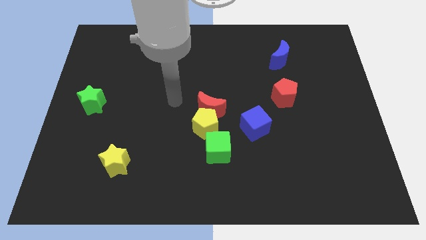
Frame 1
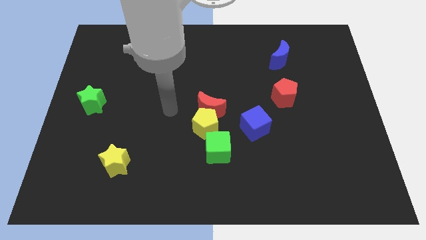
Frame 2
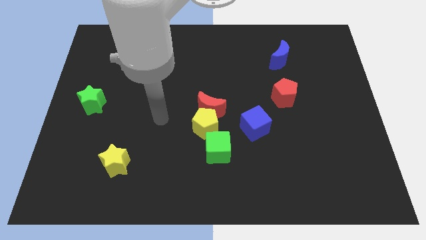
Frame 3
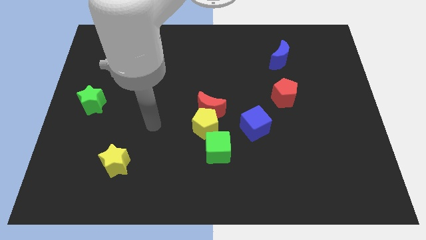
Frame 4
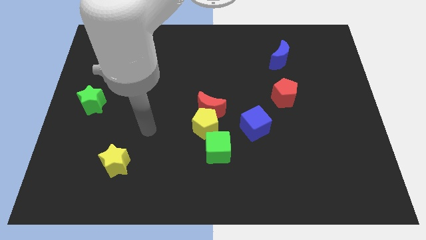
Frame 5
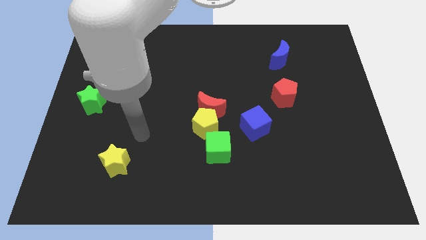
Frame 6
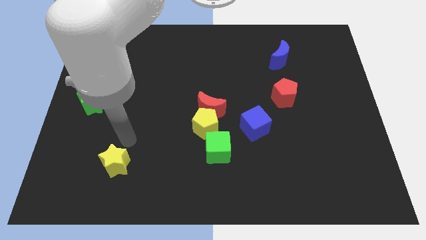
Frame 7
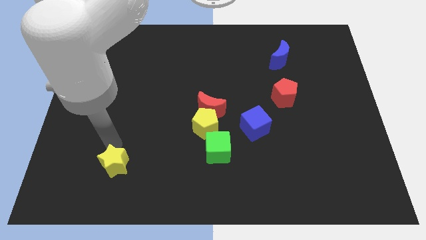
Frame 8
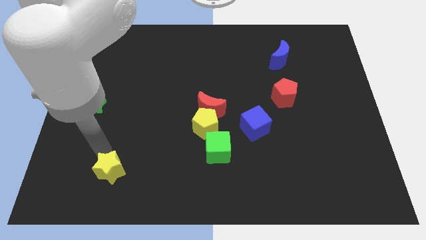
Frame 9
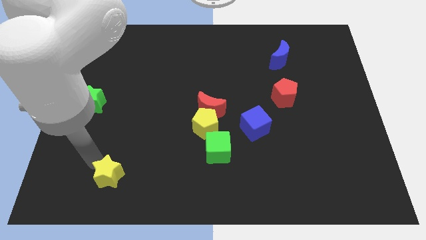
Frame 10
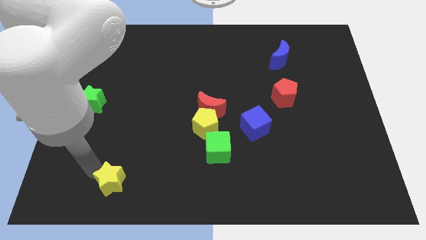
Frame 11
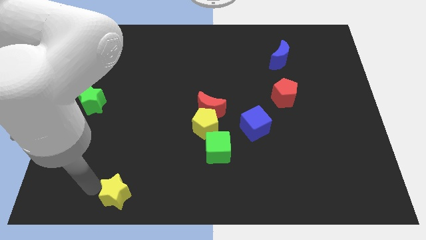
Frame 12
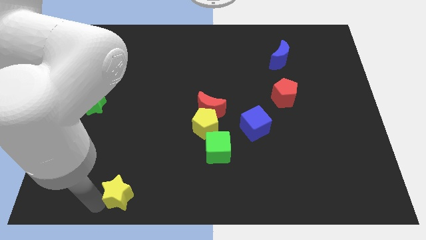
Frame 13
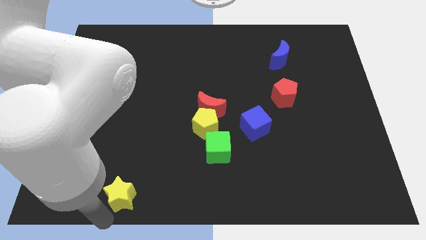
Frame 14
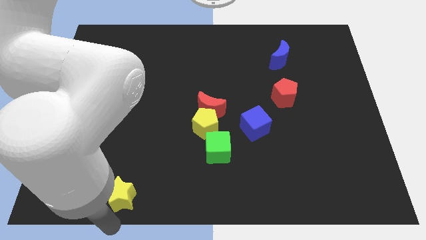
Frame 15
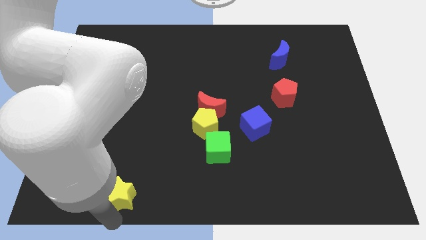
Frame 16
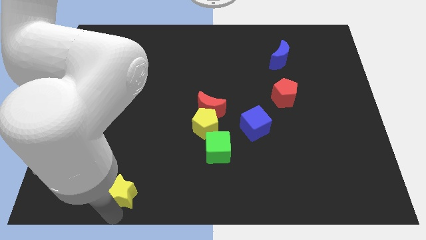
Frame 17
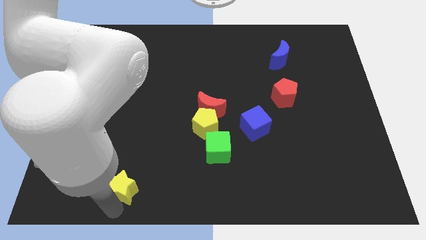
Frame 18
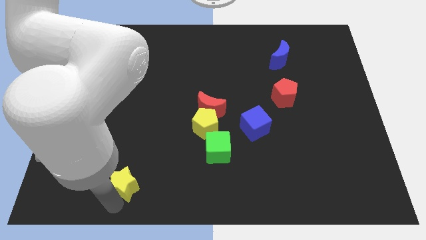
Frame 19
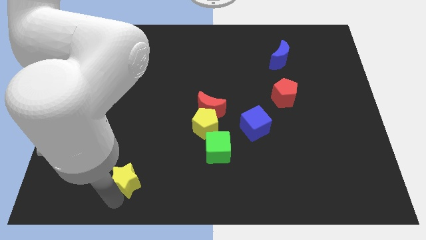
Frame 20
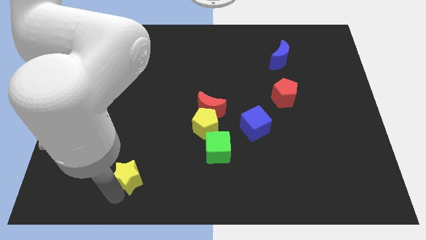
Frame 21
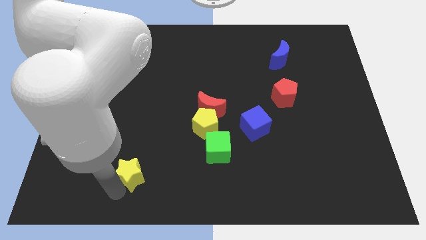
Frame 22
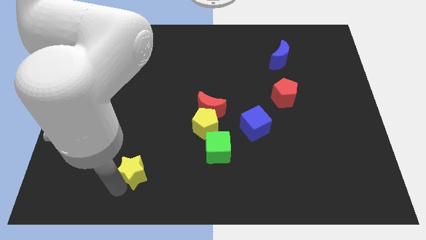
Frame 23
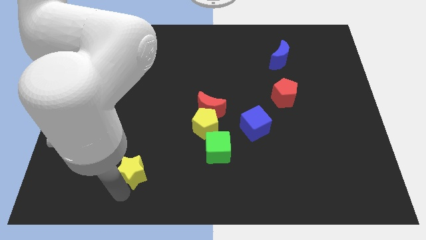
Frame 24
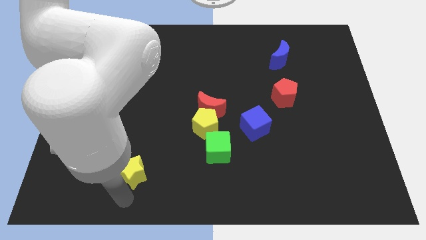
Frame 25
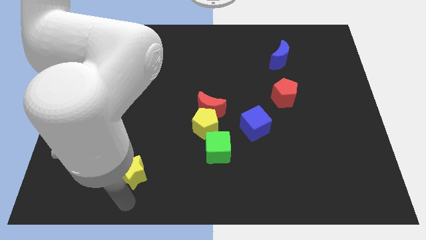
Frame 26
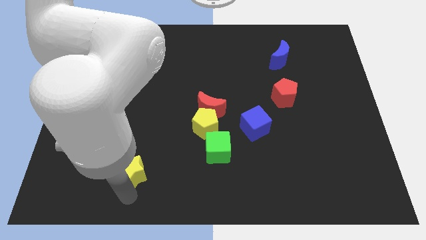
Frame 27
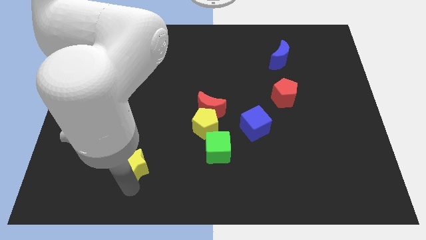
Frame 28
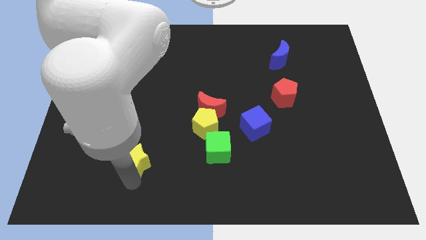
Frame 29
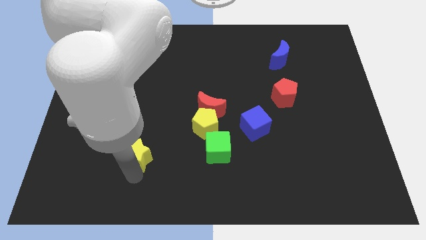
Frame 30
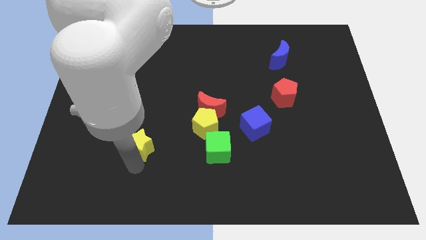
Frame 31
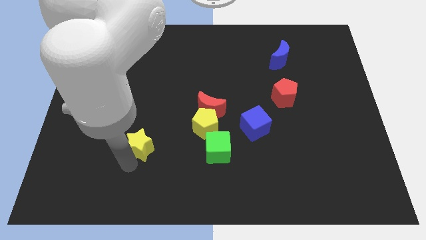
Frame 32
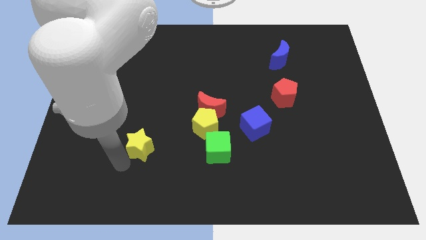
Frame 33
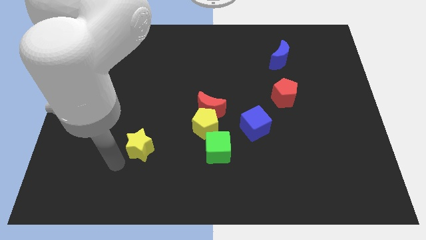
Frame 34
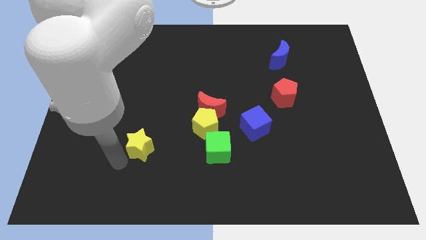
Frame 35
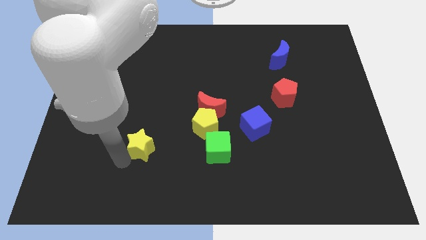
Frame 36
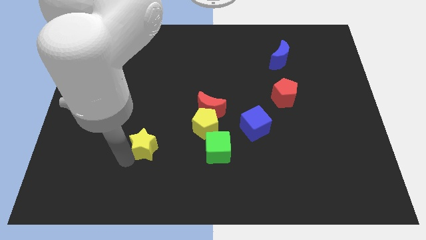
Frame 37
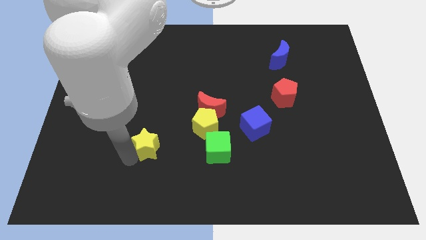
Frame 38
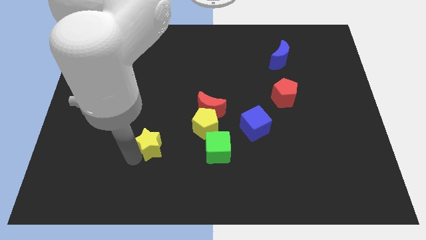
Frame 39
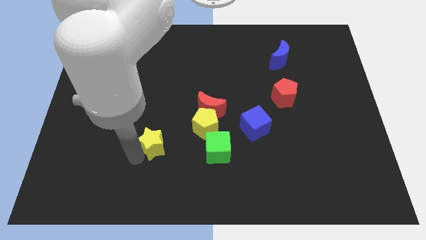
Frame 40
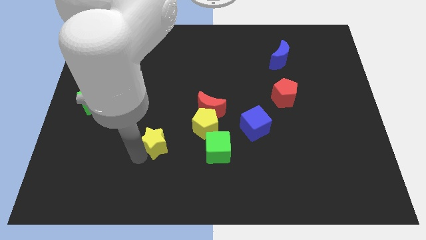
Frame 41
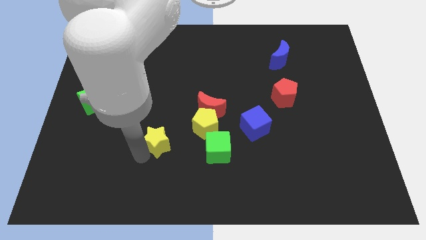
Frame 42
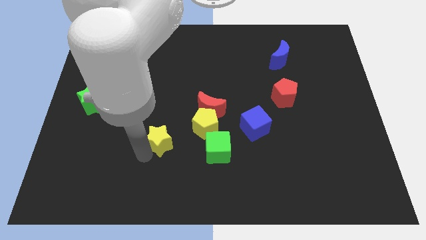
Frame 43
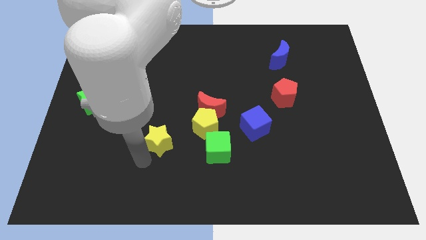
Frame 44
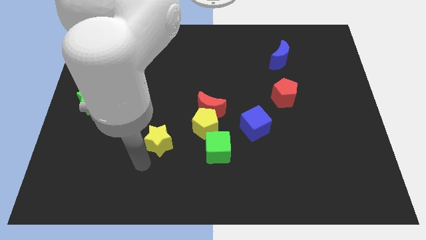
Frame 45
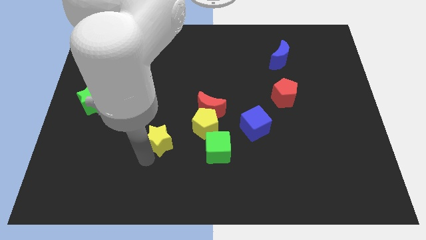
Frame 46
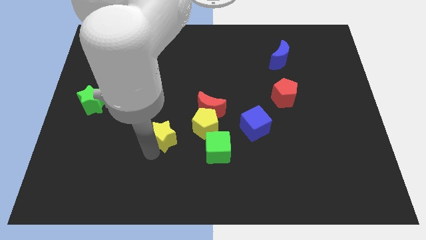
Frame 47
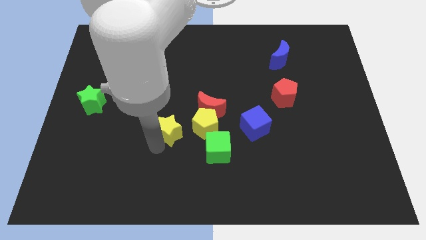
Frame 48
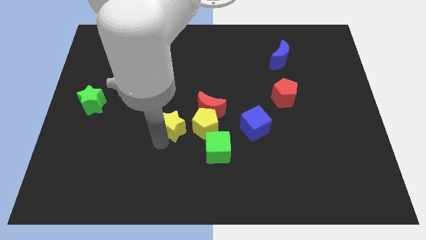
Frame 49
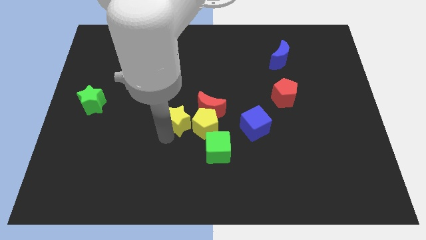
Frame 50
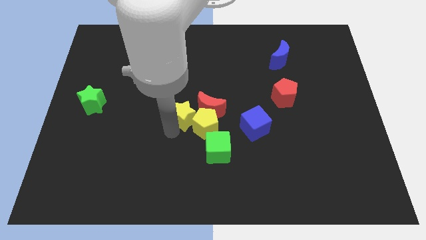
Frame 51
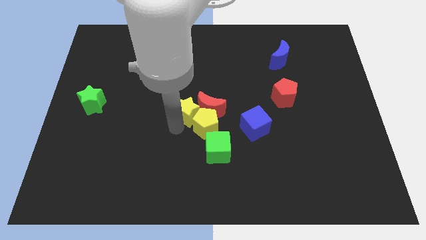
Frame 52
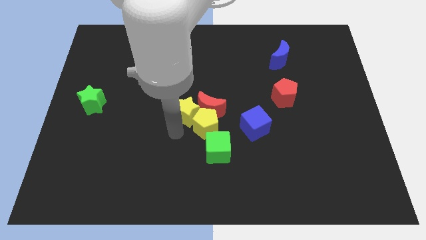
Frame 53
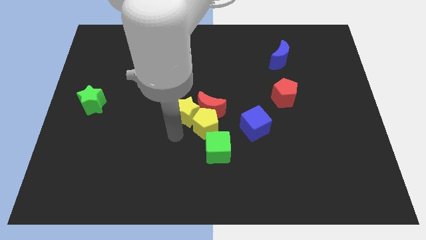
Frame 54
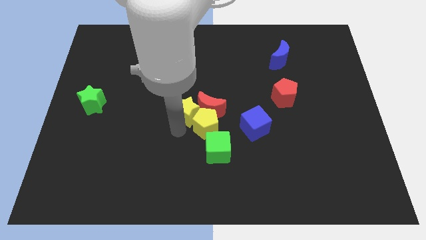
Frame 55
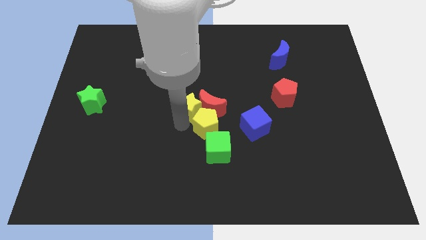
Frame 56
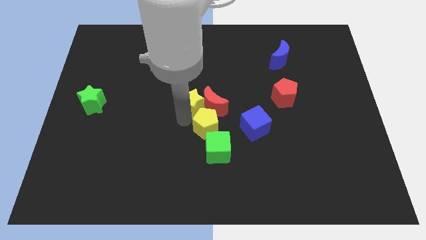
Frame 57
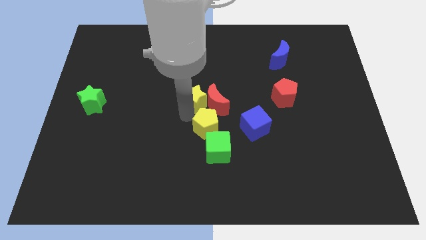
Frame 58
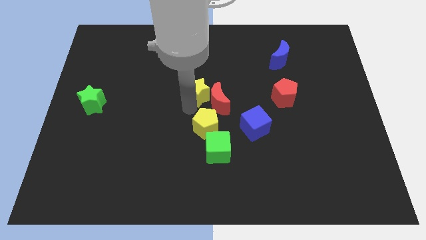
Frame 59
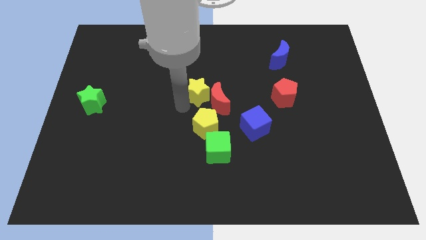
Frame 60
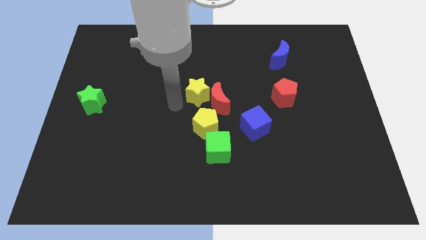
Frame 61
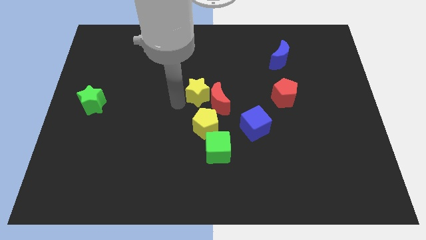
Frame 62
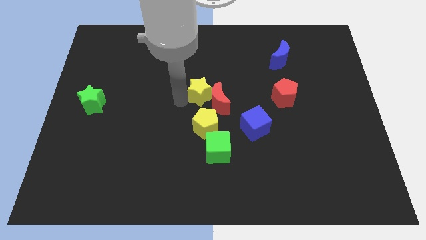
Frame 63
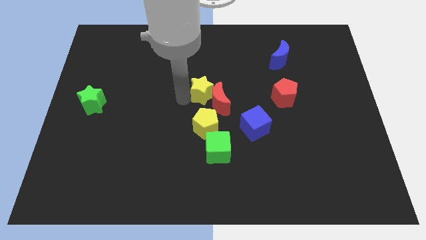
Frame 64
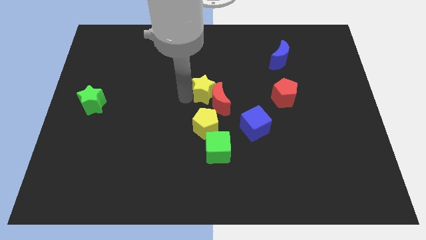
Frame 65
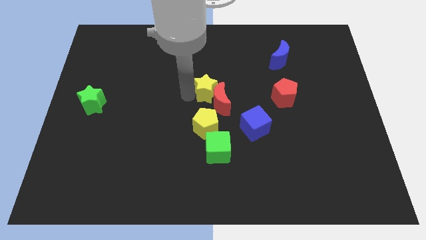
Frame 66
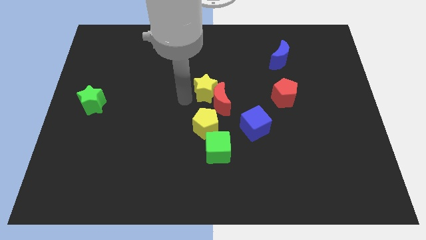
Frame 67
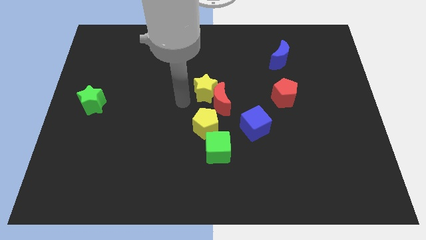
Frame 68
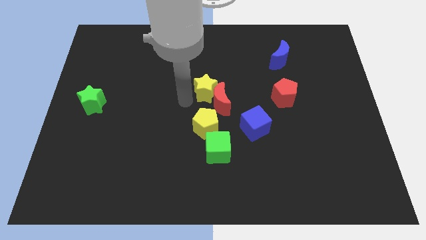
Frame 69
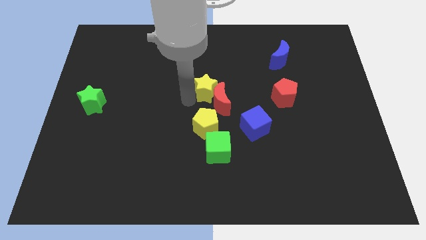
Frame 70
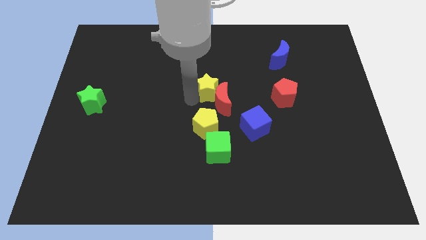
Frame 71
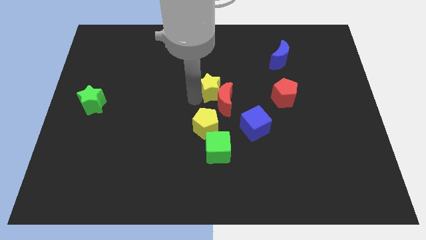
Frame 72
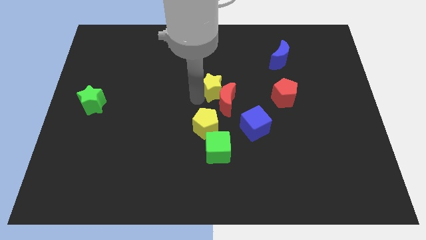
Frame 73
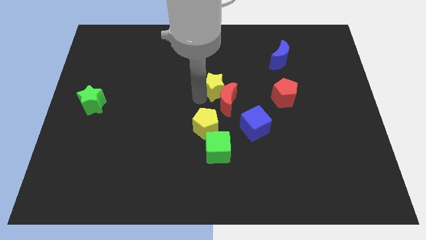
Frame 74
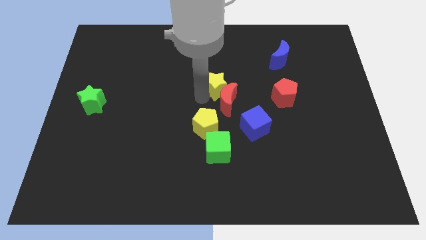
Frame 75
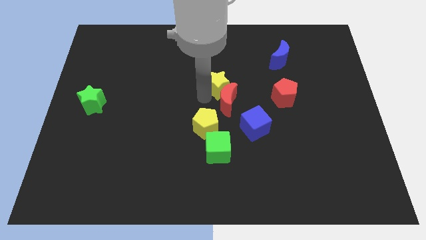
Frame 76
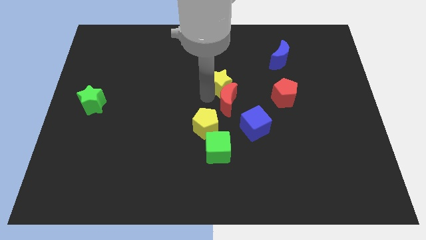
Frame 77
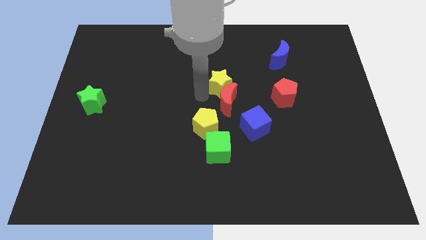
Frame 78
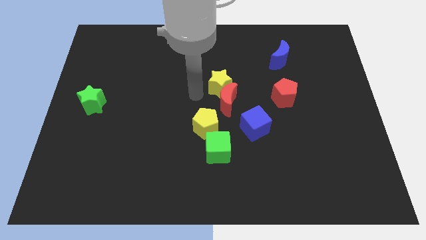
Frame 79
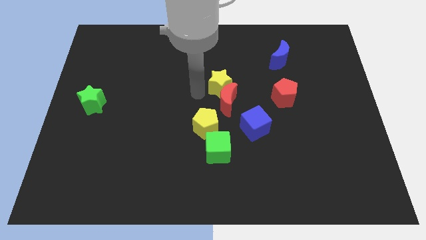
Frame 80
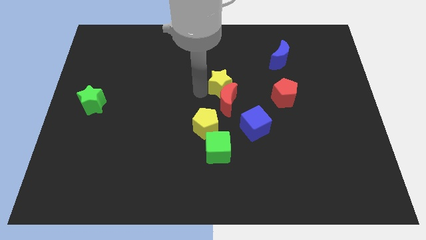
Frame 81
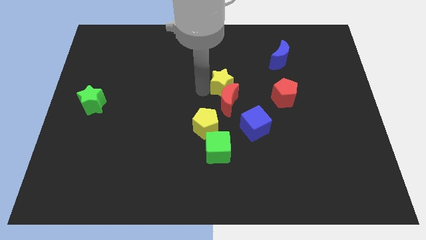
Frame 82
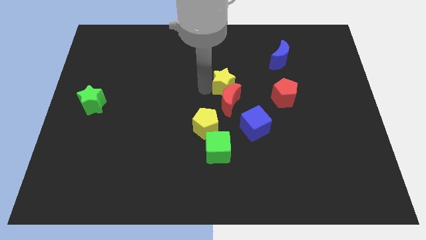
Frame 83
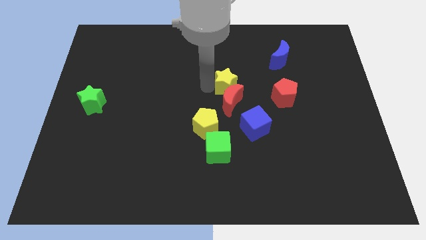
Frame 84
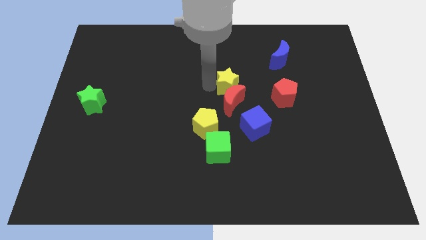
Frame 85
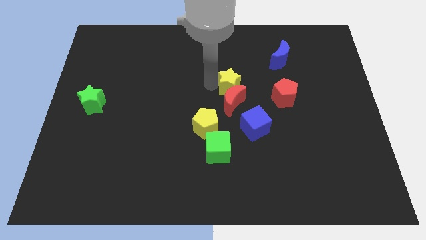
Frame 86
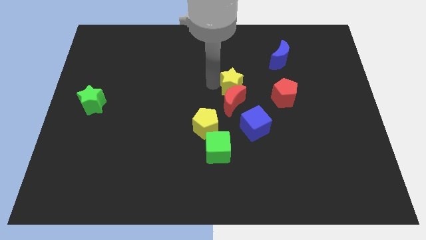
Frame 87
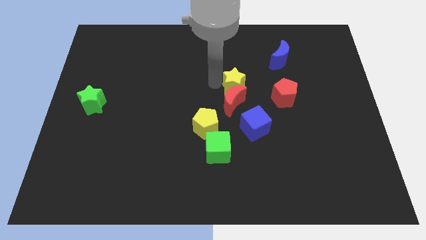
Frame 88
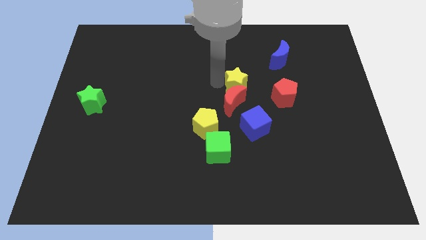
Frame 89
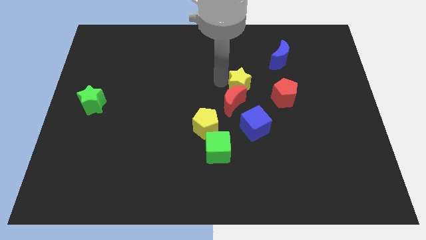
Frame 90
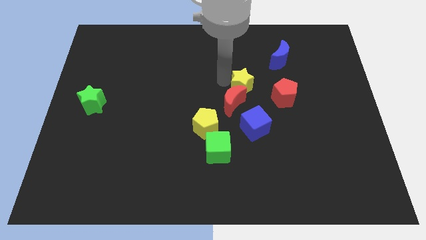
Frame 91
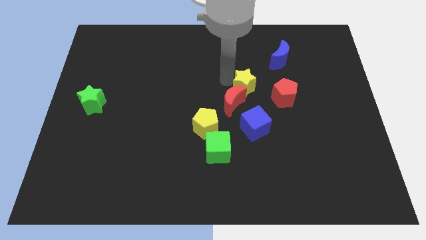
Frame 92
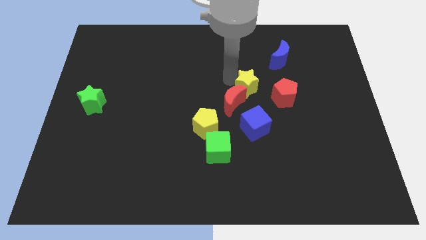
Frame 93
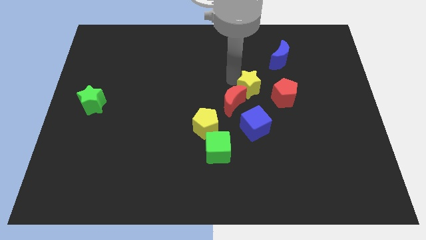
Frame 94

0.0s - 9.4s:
put the yellow star diagonally down and to the left of the blue moon
